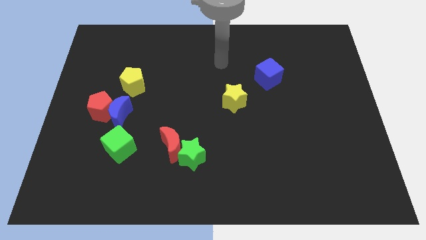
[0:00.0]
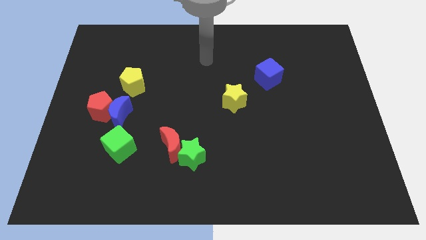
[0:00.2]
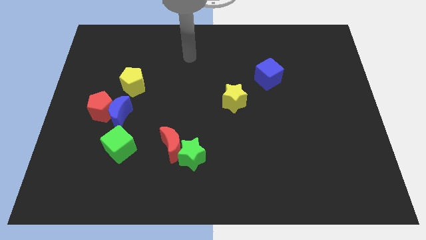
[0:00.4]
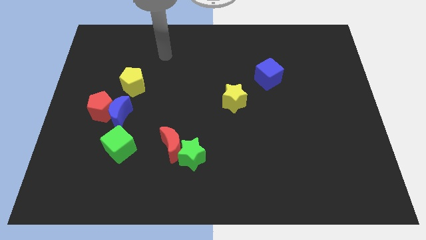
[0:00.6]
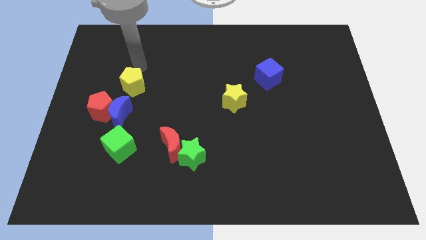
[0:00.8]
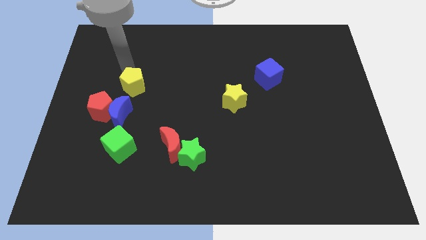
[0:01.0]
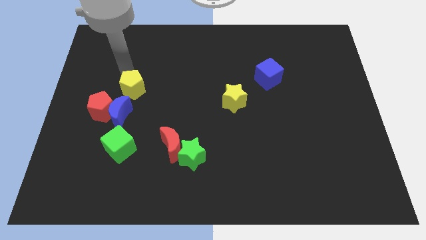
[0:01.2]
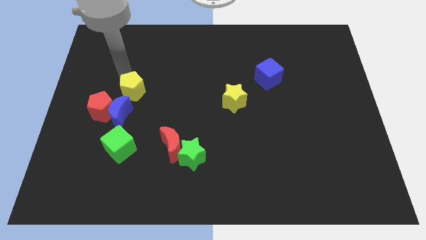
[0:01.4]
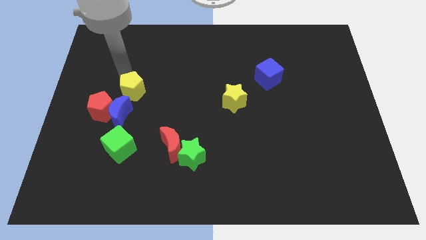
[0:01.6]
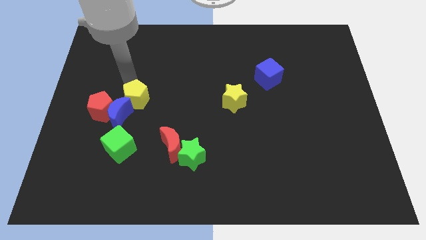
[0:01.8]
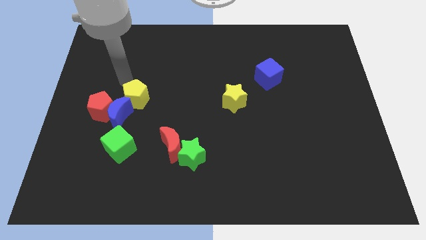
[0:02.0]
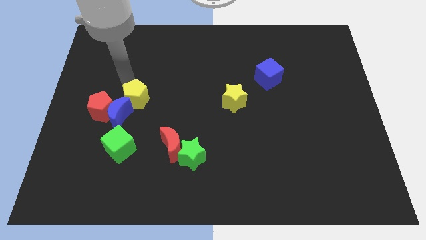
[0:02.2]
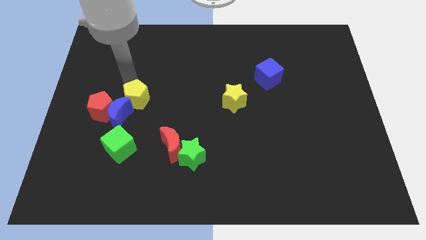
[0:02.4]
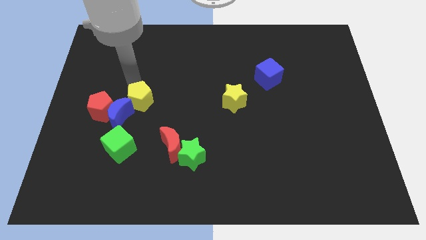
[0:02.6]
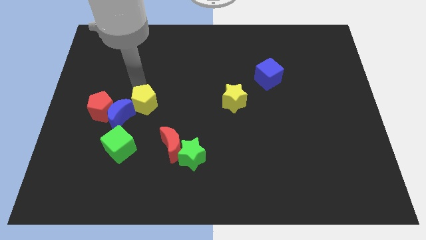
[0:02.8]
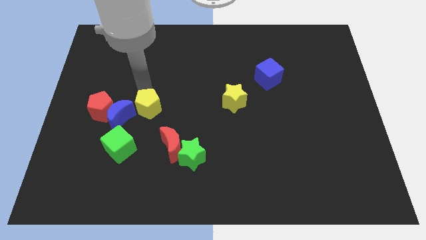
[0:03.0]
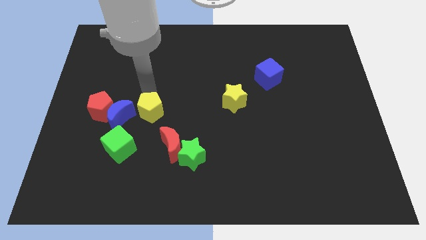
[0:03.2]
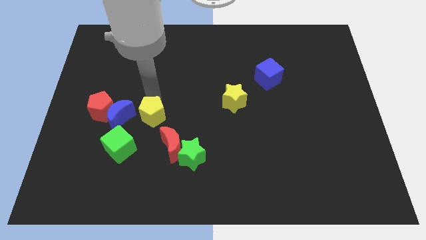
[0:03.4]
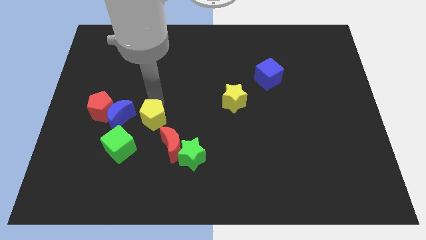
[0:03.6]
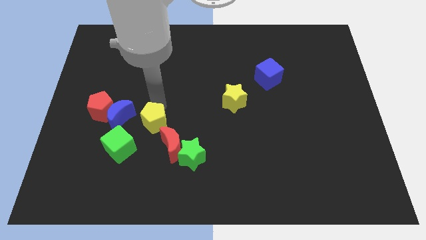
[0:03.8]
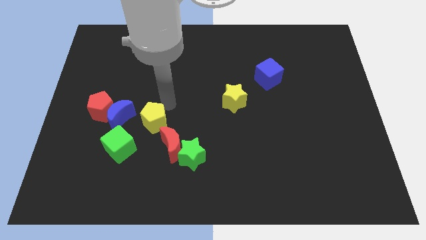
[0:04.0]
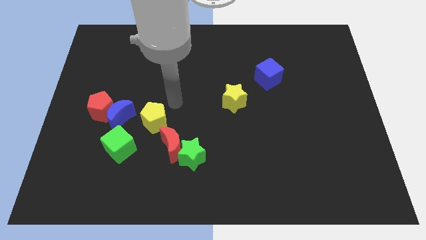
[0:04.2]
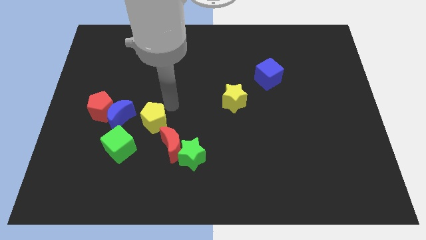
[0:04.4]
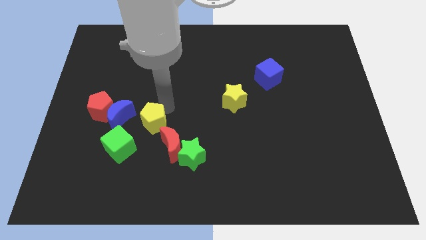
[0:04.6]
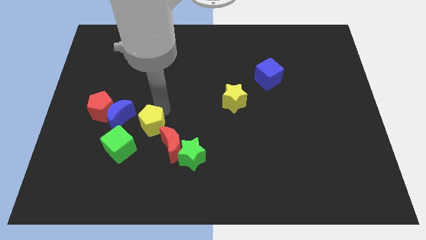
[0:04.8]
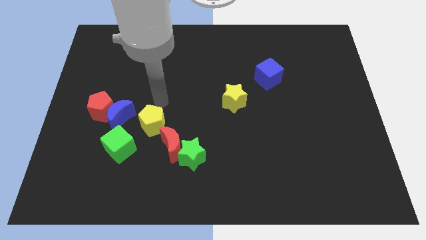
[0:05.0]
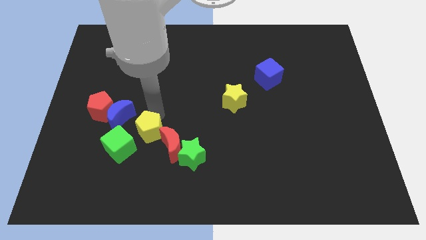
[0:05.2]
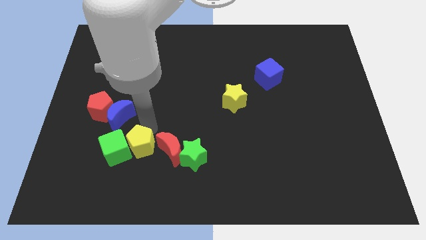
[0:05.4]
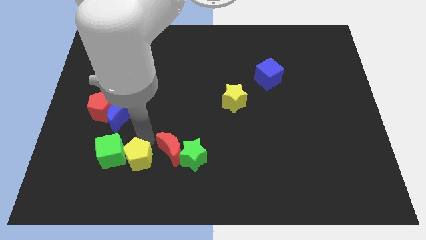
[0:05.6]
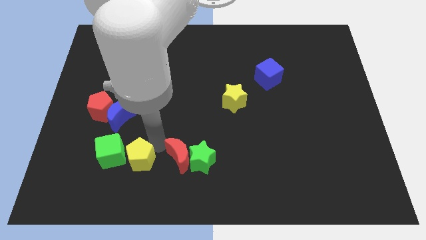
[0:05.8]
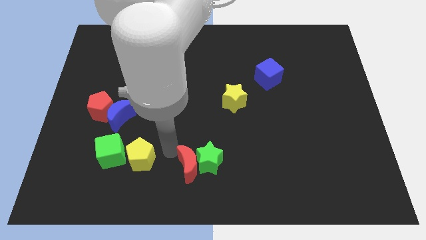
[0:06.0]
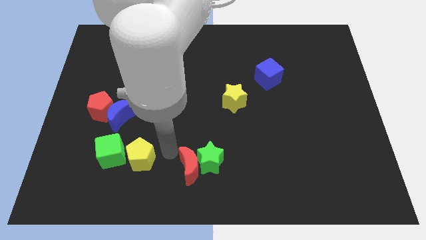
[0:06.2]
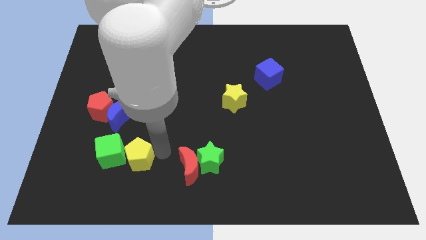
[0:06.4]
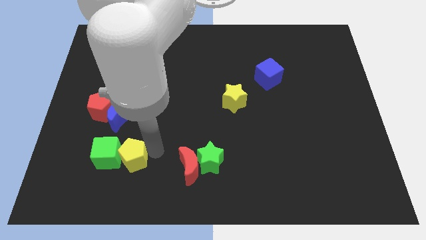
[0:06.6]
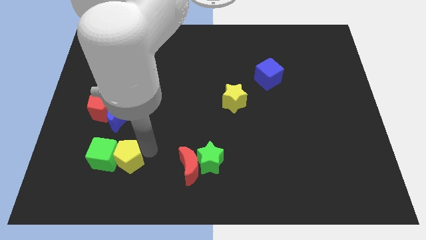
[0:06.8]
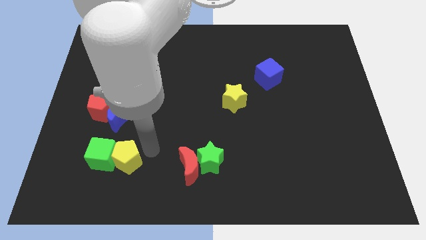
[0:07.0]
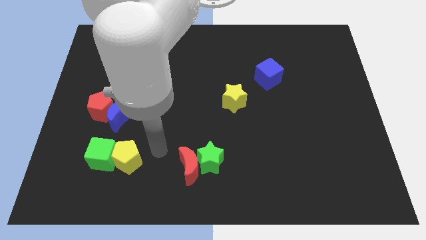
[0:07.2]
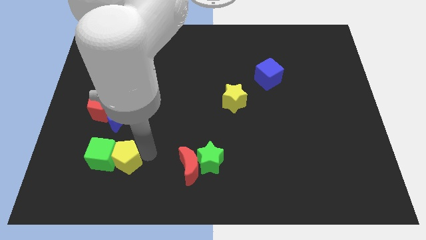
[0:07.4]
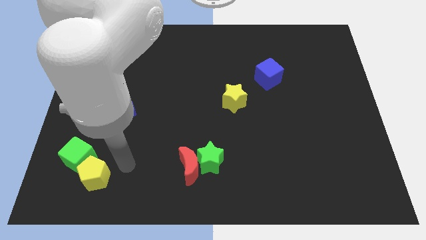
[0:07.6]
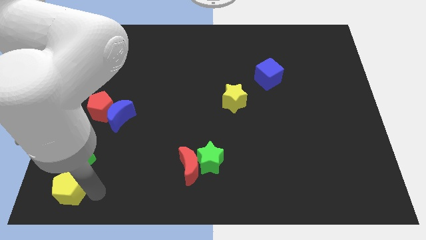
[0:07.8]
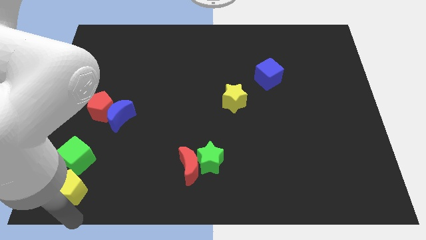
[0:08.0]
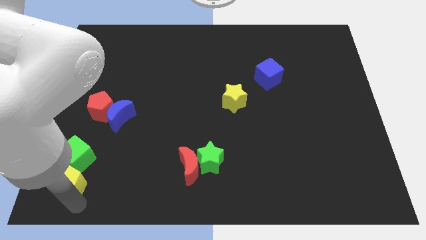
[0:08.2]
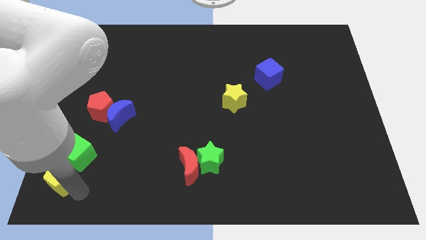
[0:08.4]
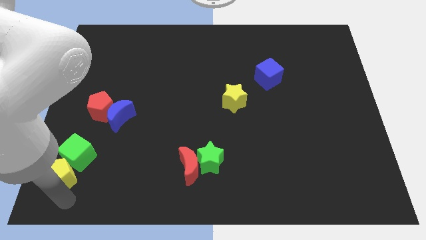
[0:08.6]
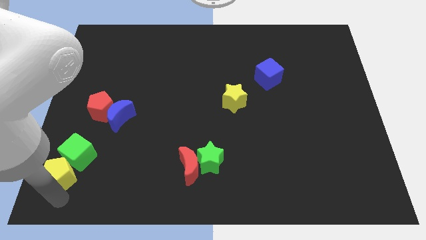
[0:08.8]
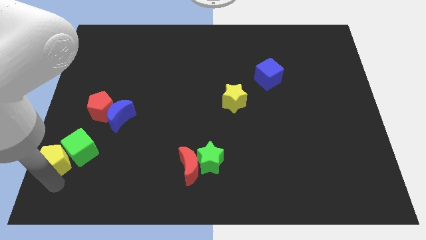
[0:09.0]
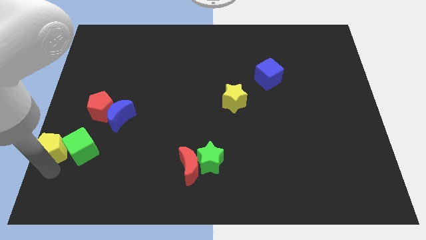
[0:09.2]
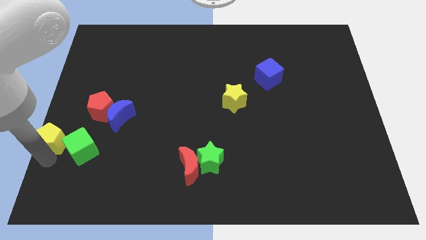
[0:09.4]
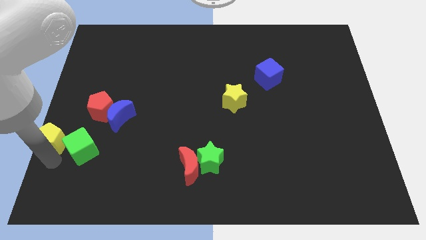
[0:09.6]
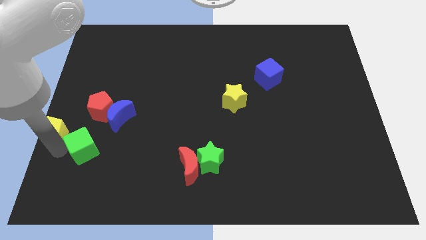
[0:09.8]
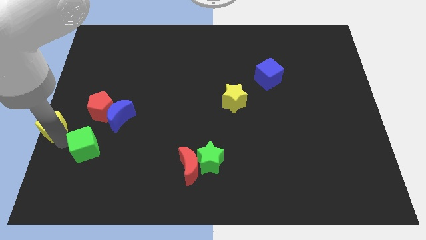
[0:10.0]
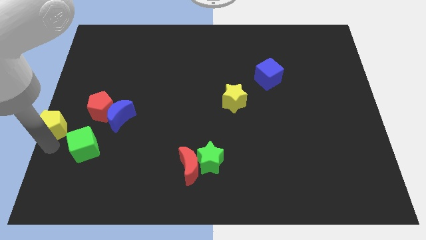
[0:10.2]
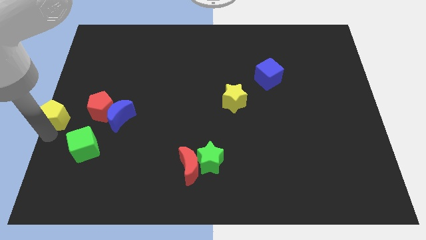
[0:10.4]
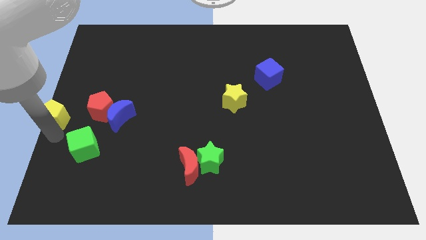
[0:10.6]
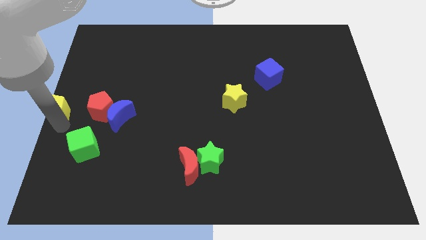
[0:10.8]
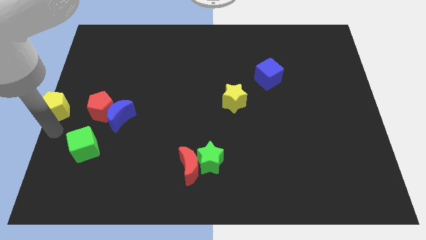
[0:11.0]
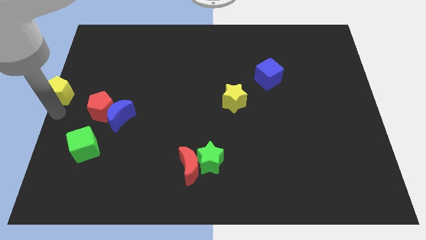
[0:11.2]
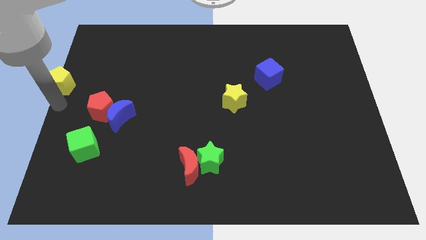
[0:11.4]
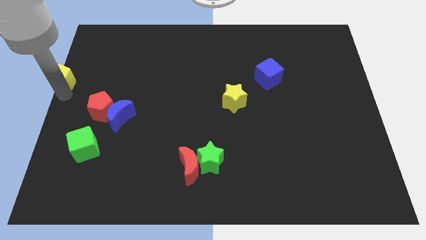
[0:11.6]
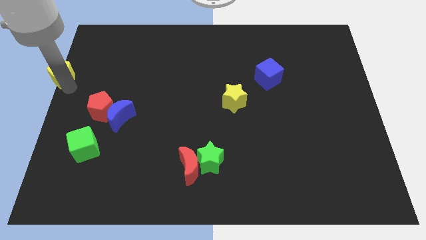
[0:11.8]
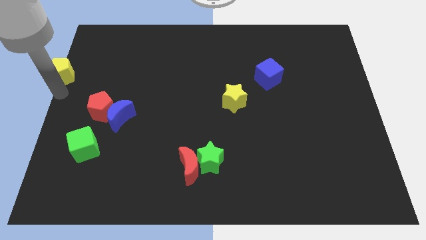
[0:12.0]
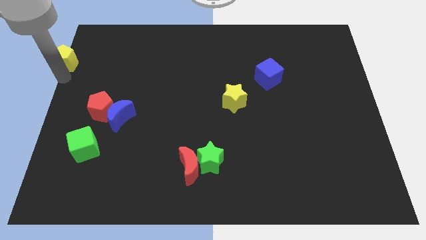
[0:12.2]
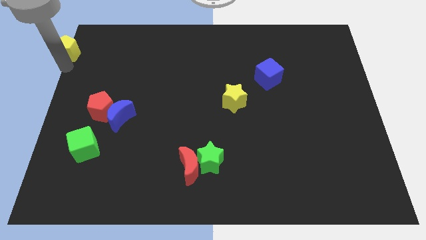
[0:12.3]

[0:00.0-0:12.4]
push the yellow pentagon to the top left
